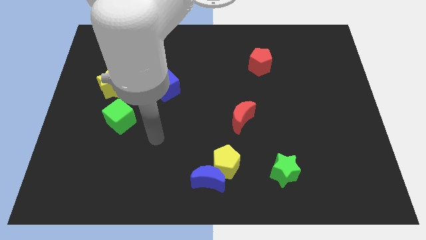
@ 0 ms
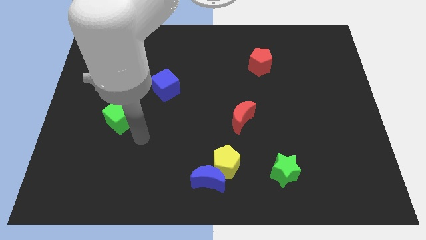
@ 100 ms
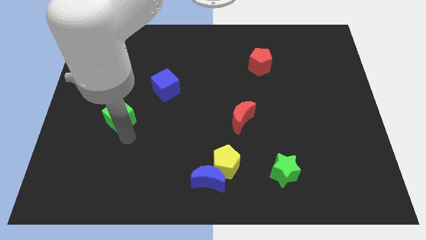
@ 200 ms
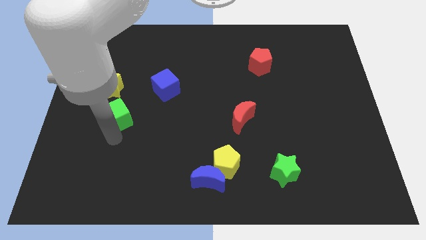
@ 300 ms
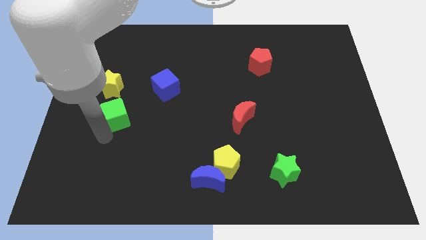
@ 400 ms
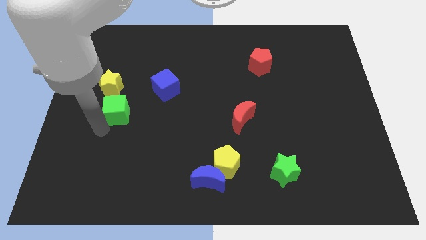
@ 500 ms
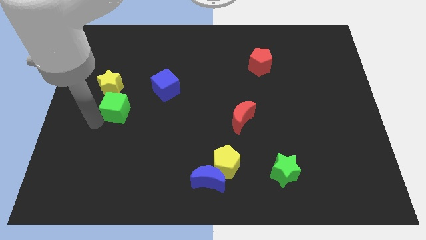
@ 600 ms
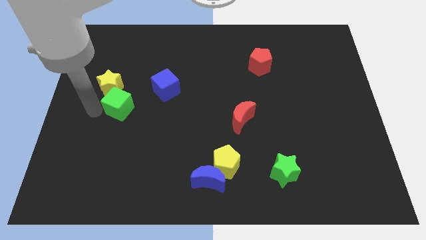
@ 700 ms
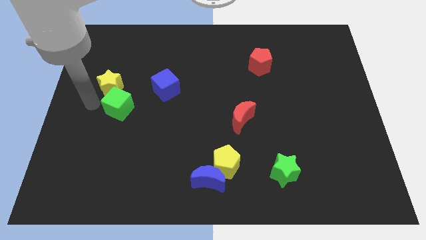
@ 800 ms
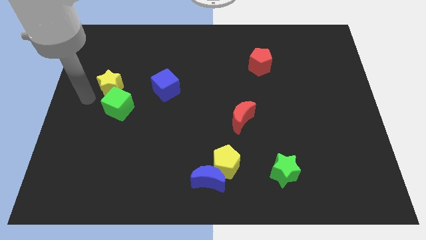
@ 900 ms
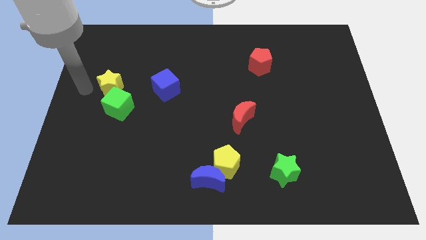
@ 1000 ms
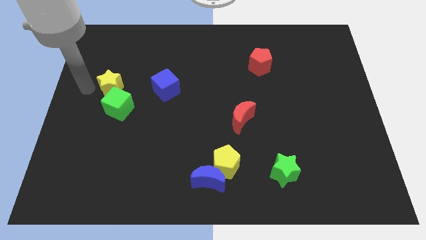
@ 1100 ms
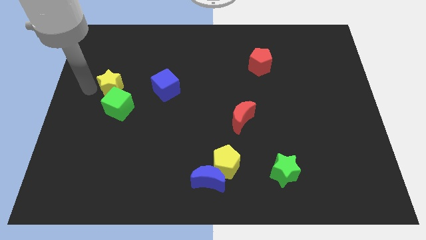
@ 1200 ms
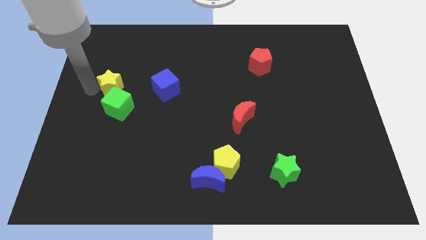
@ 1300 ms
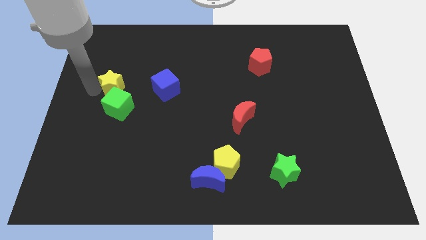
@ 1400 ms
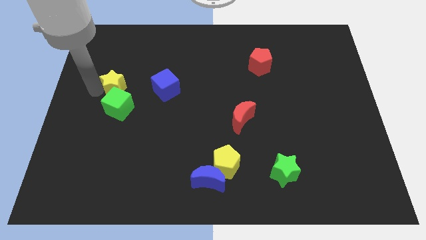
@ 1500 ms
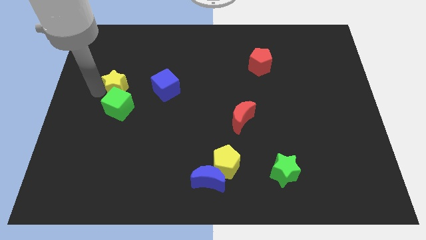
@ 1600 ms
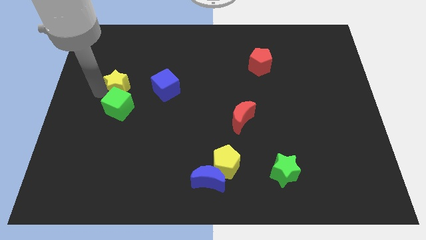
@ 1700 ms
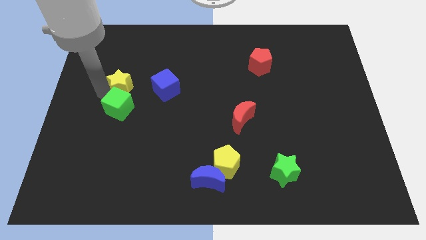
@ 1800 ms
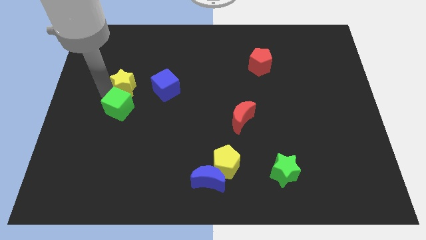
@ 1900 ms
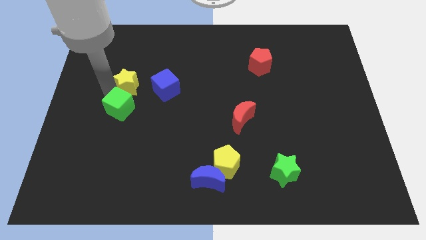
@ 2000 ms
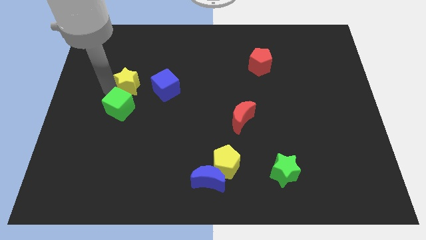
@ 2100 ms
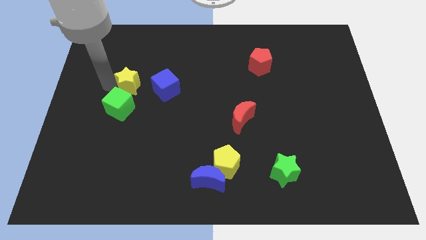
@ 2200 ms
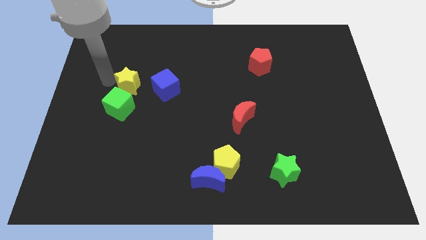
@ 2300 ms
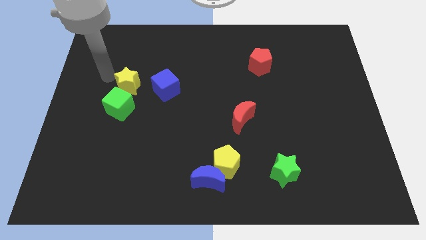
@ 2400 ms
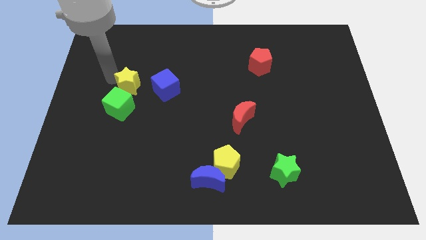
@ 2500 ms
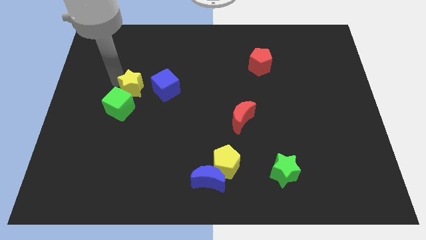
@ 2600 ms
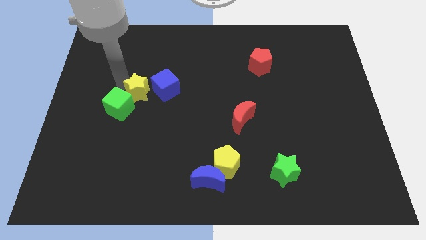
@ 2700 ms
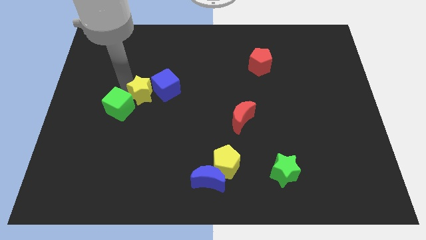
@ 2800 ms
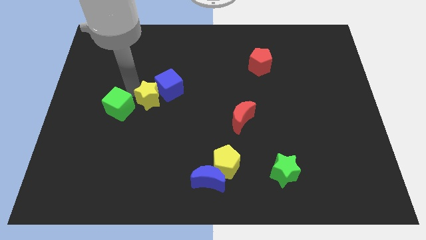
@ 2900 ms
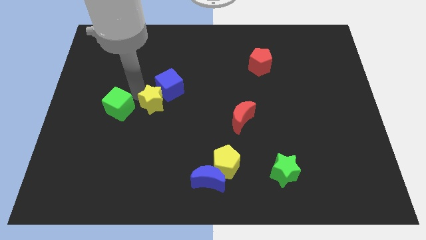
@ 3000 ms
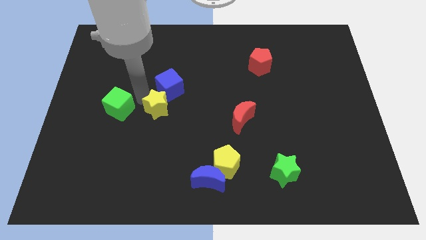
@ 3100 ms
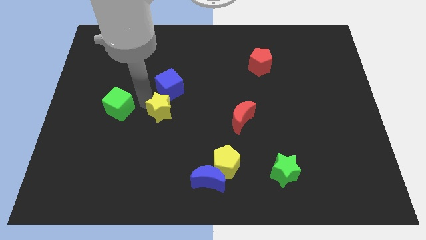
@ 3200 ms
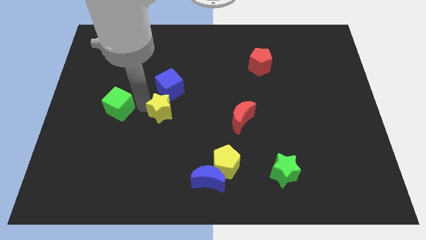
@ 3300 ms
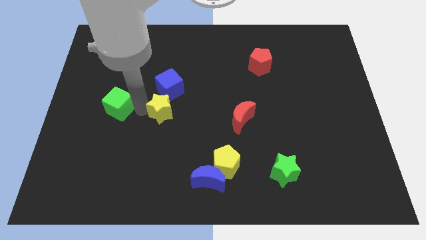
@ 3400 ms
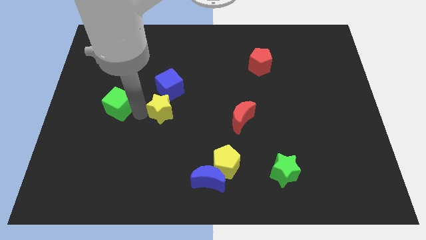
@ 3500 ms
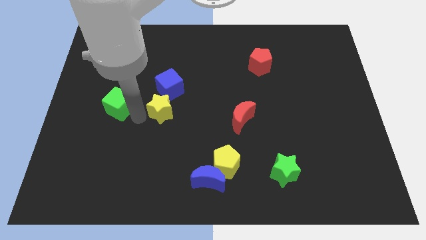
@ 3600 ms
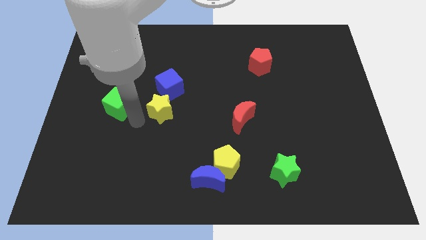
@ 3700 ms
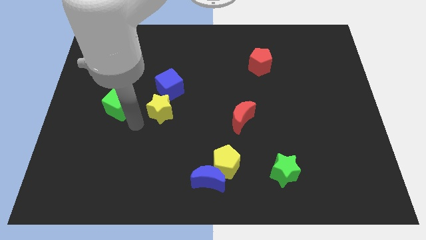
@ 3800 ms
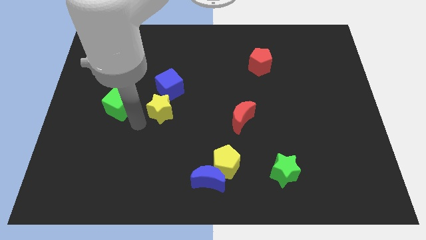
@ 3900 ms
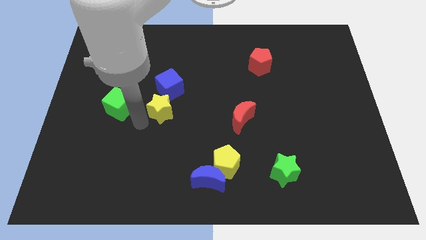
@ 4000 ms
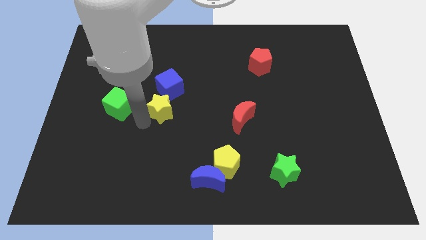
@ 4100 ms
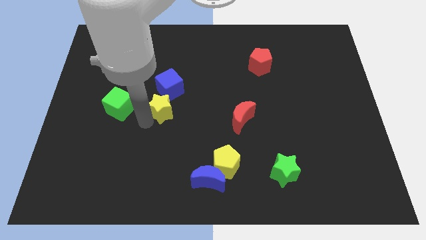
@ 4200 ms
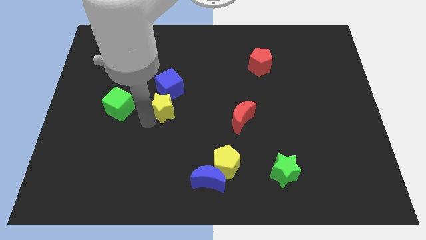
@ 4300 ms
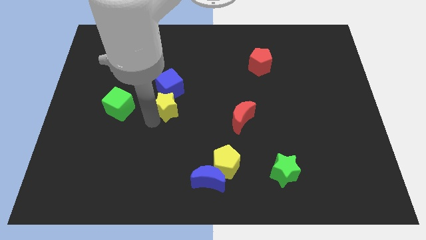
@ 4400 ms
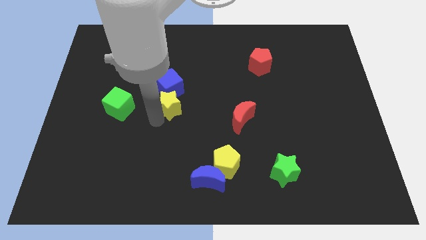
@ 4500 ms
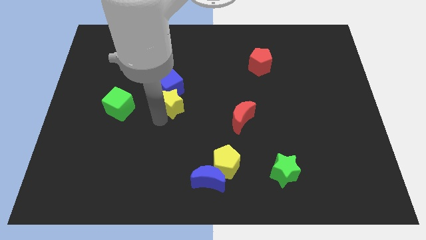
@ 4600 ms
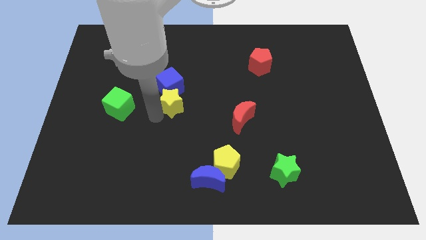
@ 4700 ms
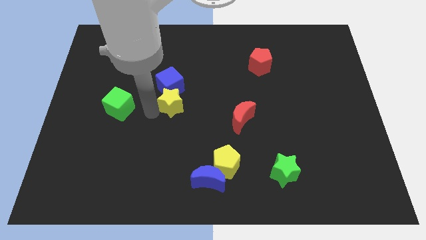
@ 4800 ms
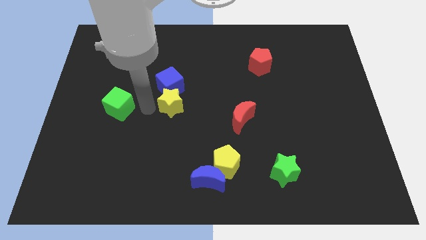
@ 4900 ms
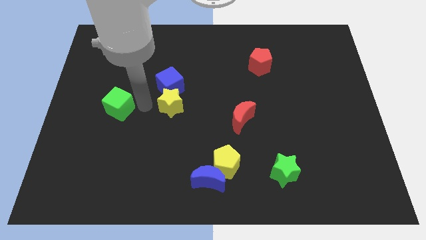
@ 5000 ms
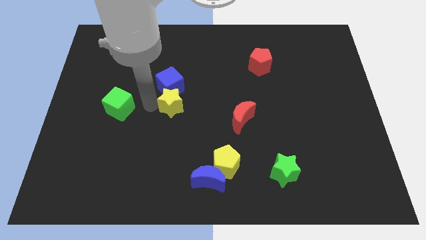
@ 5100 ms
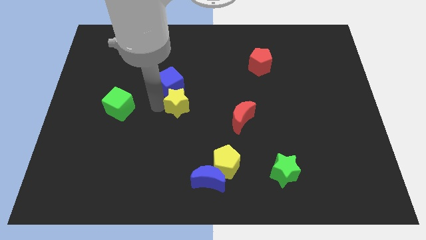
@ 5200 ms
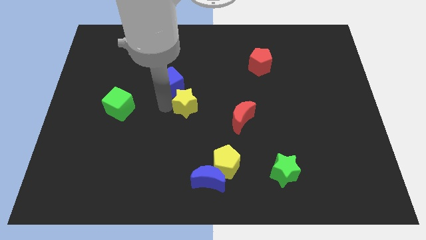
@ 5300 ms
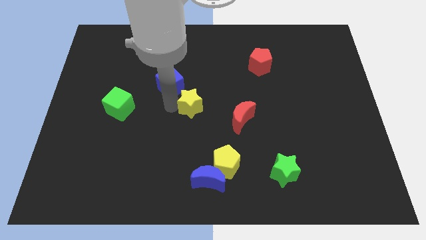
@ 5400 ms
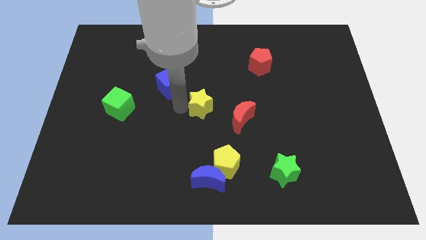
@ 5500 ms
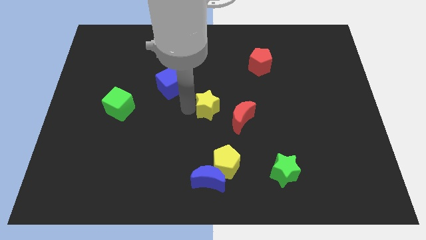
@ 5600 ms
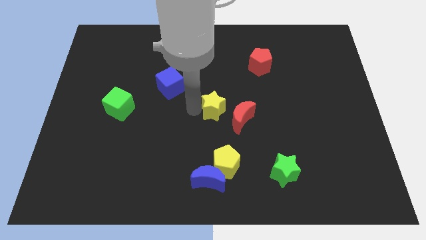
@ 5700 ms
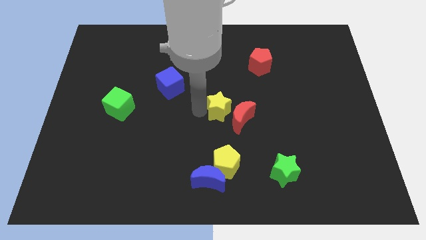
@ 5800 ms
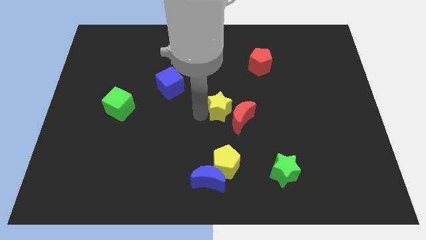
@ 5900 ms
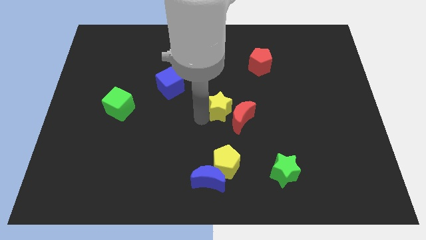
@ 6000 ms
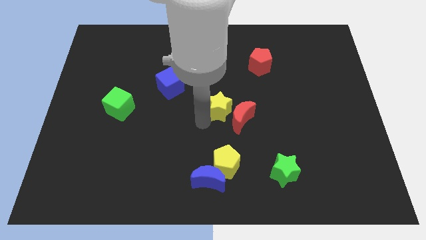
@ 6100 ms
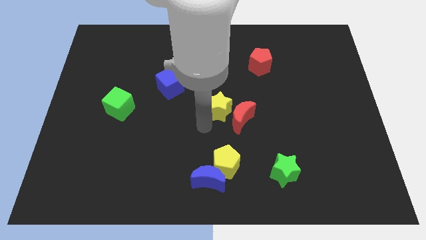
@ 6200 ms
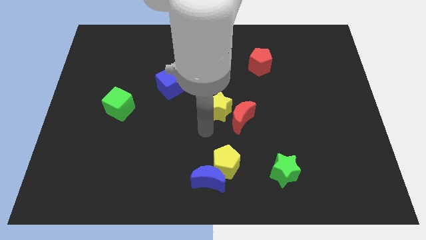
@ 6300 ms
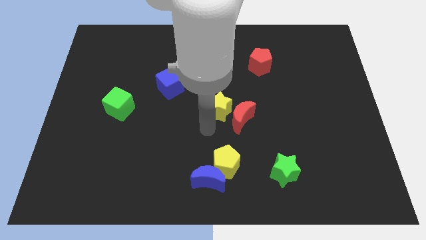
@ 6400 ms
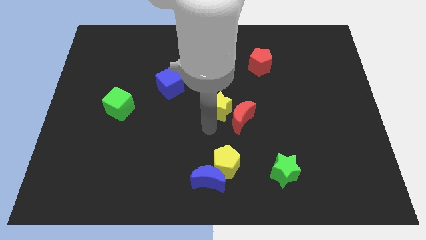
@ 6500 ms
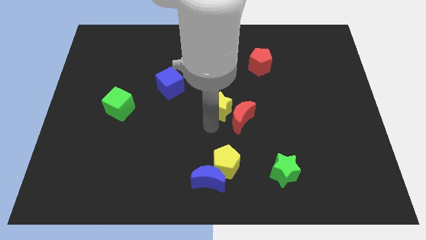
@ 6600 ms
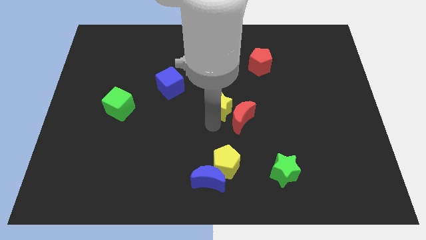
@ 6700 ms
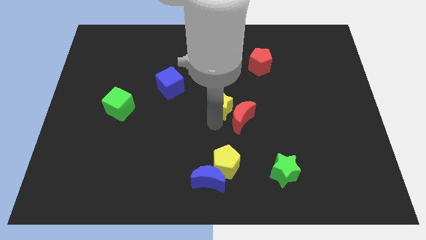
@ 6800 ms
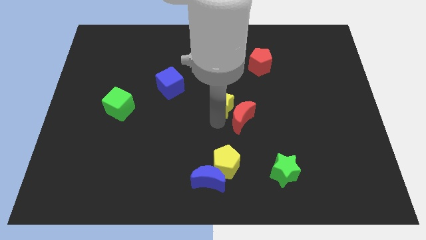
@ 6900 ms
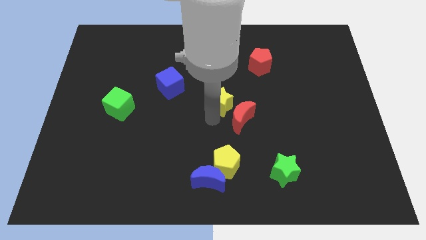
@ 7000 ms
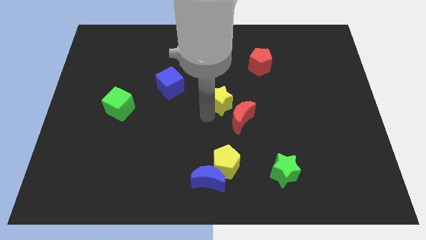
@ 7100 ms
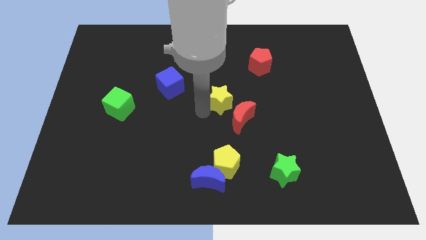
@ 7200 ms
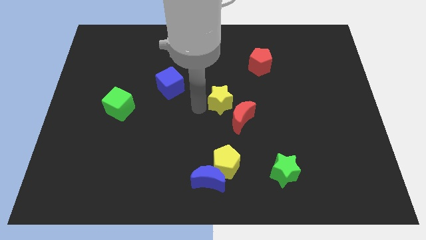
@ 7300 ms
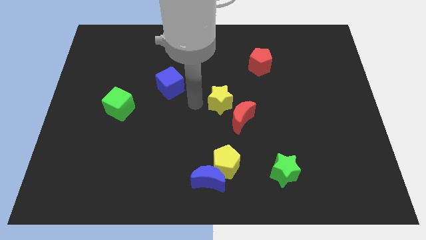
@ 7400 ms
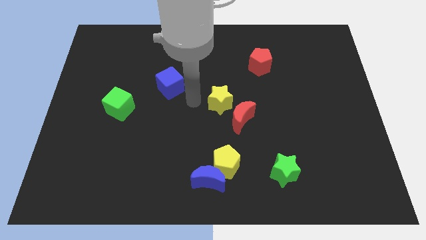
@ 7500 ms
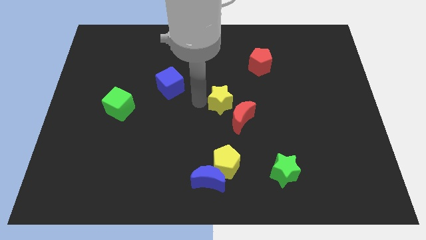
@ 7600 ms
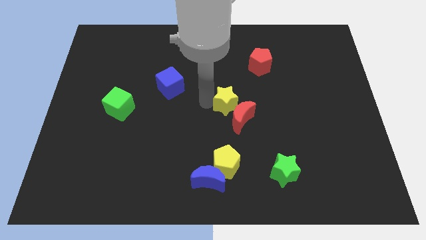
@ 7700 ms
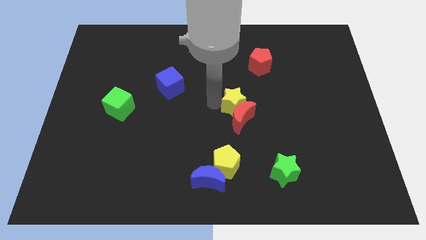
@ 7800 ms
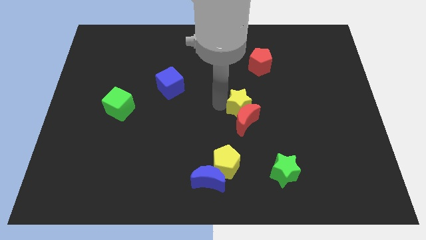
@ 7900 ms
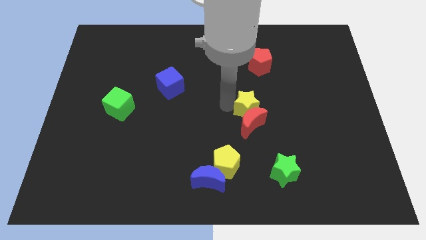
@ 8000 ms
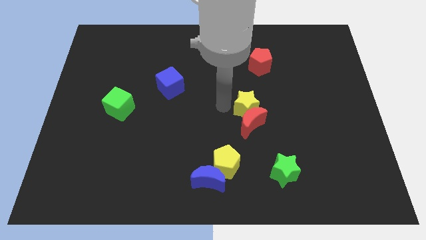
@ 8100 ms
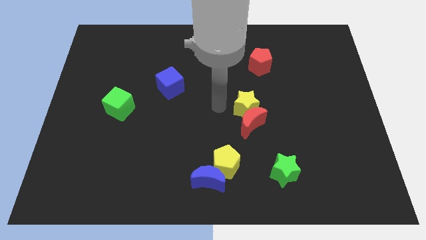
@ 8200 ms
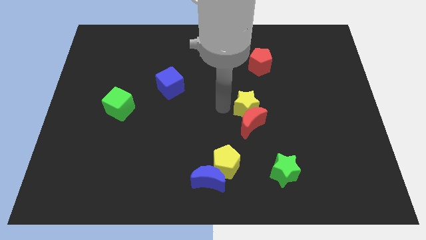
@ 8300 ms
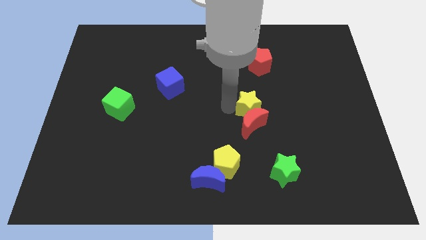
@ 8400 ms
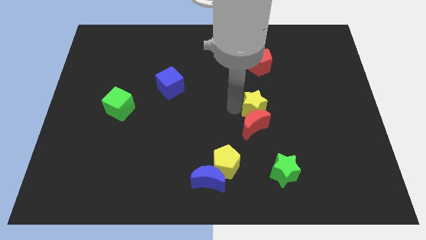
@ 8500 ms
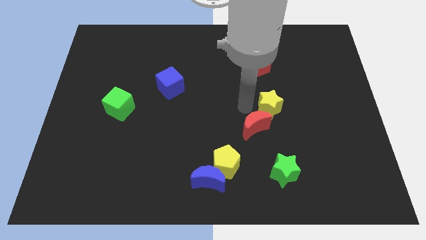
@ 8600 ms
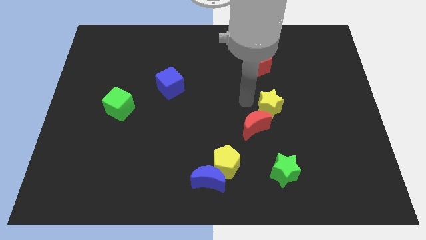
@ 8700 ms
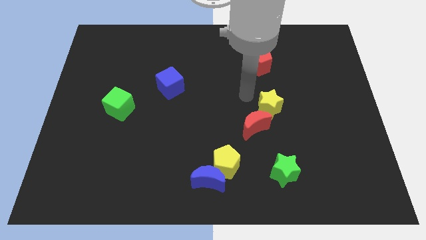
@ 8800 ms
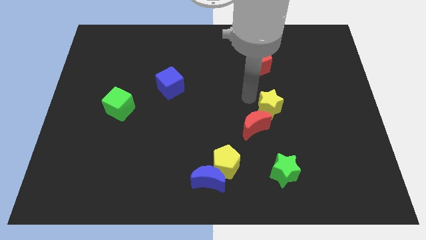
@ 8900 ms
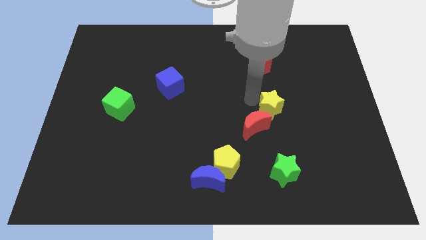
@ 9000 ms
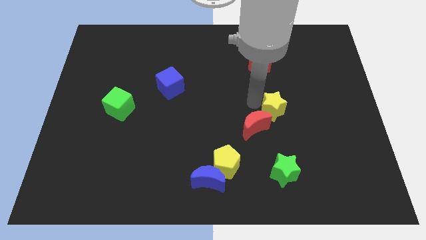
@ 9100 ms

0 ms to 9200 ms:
move the yellow star to the right side of the red moon
